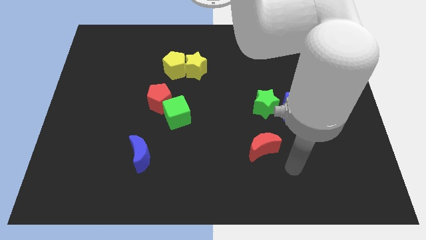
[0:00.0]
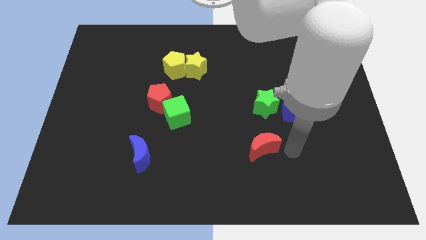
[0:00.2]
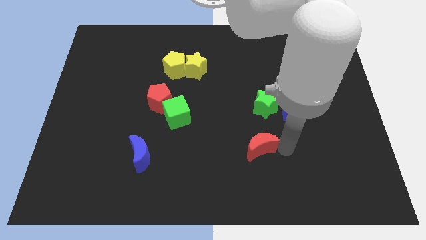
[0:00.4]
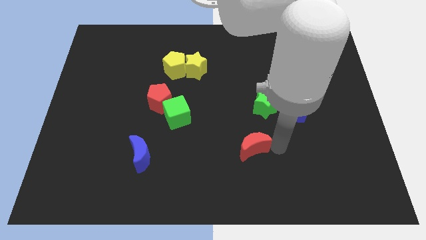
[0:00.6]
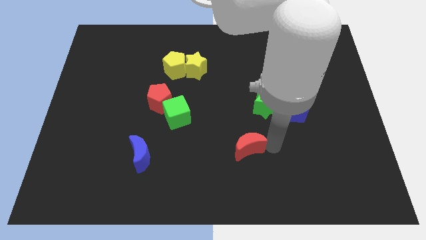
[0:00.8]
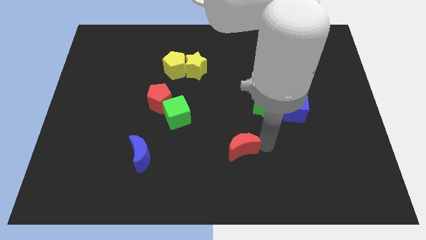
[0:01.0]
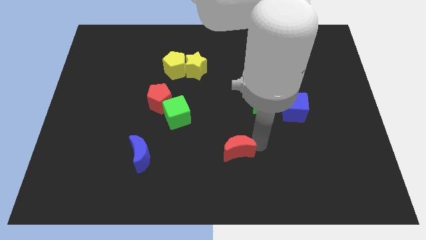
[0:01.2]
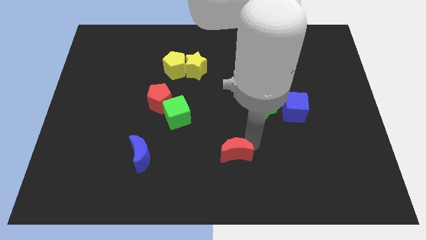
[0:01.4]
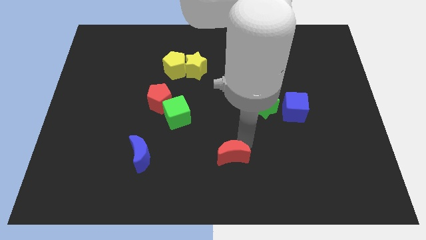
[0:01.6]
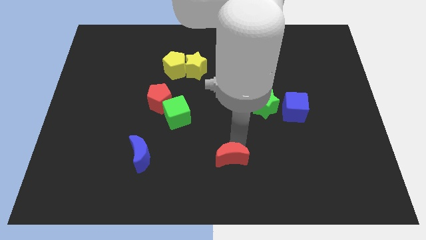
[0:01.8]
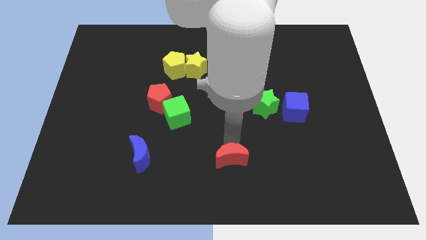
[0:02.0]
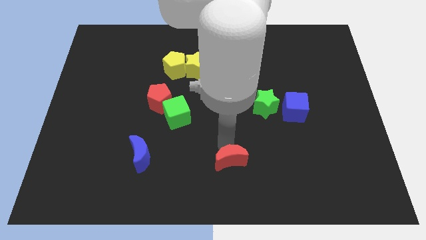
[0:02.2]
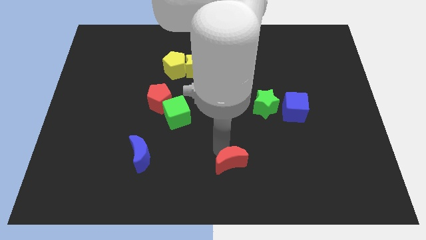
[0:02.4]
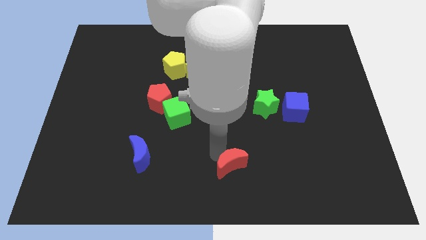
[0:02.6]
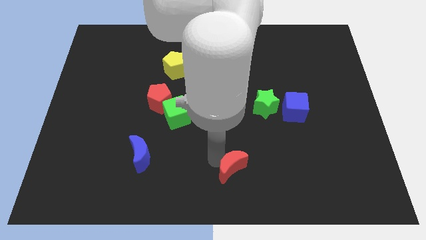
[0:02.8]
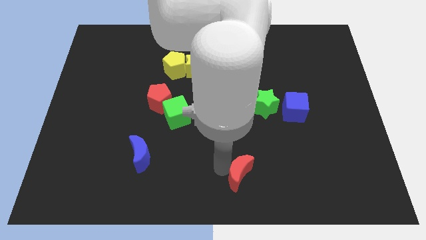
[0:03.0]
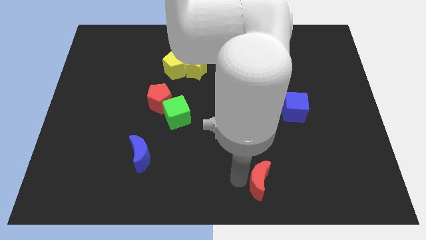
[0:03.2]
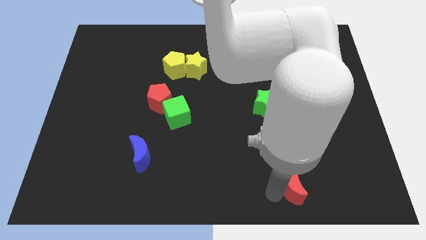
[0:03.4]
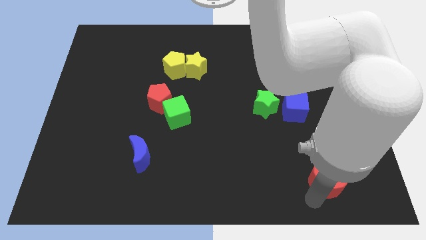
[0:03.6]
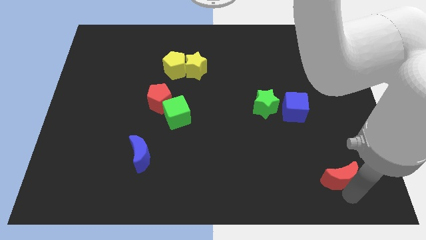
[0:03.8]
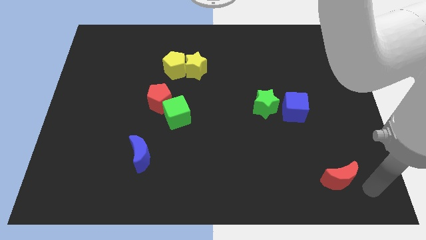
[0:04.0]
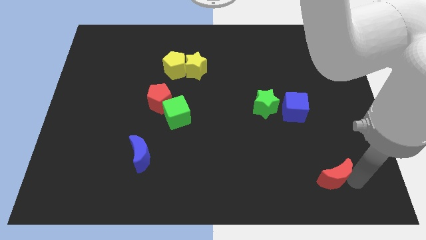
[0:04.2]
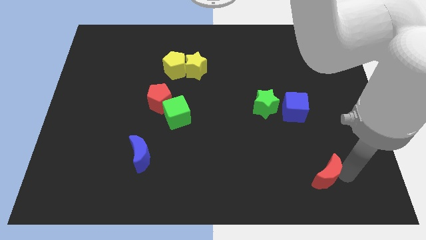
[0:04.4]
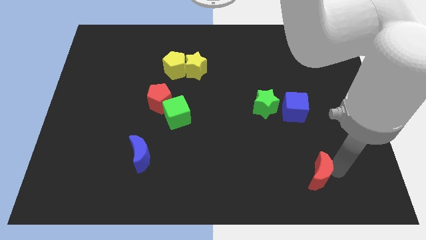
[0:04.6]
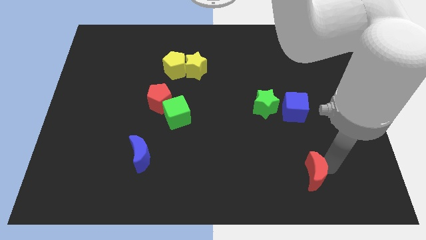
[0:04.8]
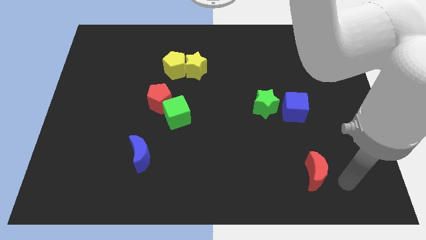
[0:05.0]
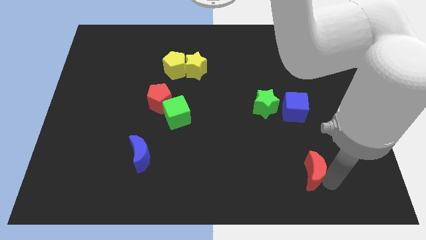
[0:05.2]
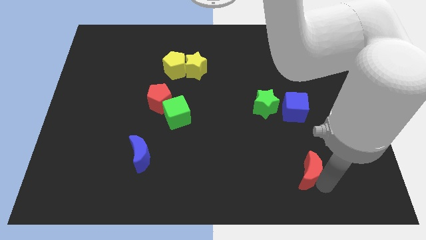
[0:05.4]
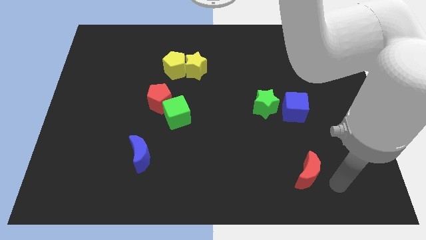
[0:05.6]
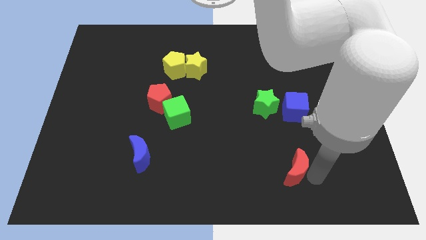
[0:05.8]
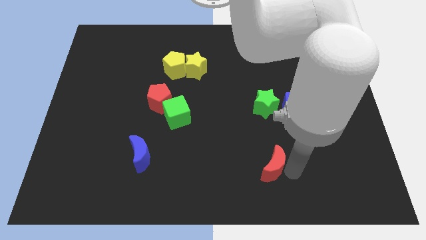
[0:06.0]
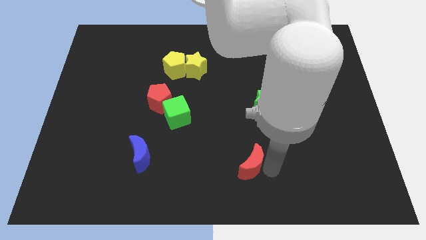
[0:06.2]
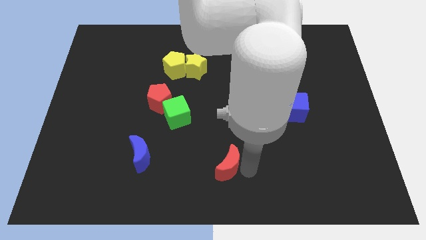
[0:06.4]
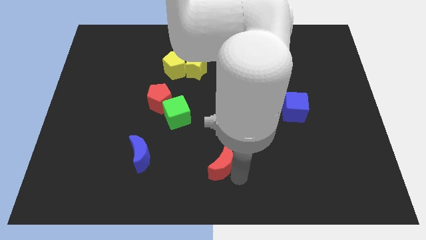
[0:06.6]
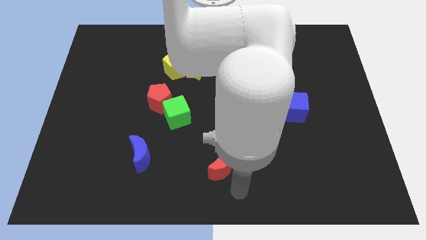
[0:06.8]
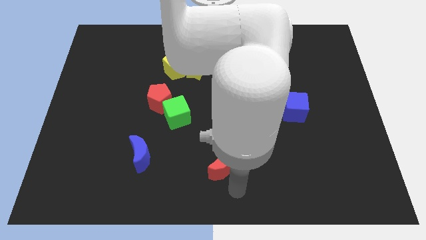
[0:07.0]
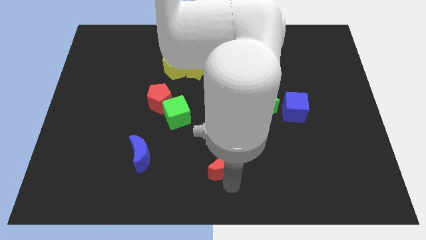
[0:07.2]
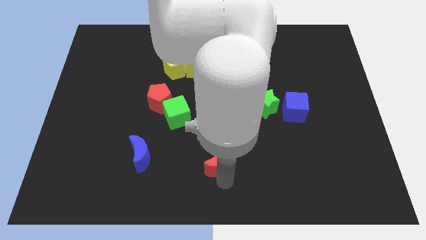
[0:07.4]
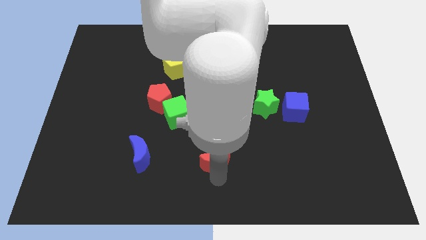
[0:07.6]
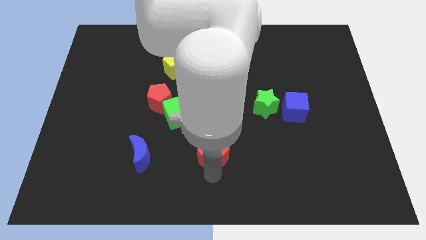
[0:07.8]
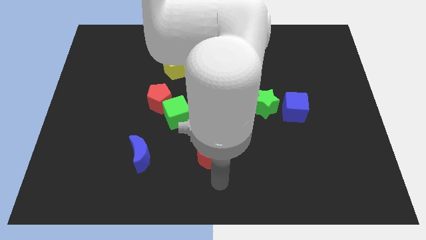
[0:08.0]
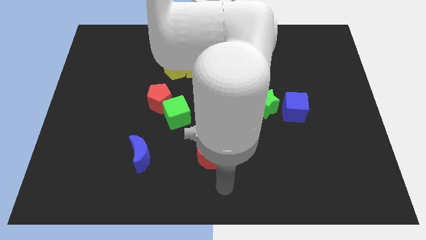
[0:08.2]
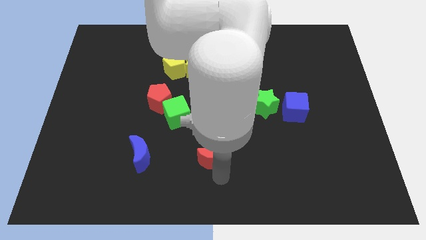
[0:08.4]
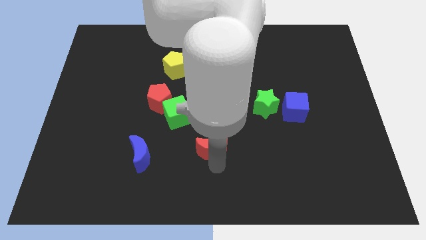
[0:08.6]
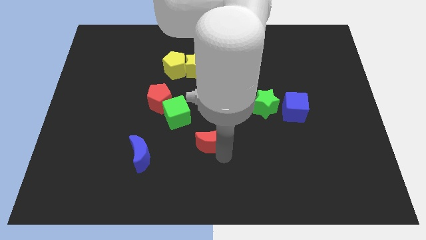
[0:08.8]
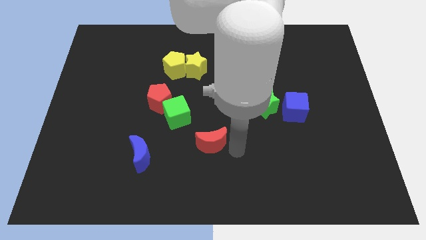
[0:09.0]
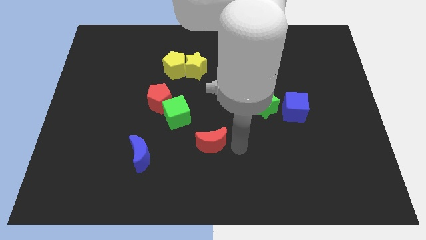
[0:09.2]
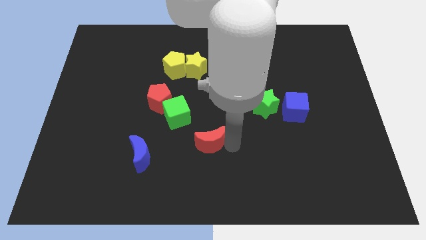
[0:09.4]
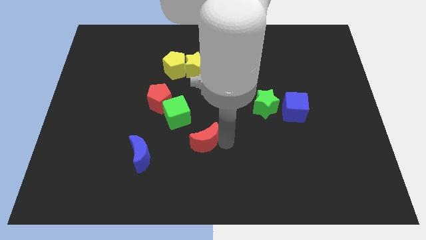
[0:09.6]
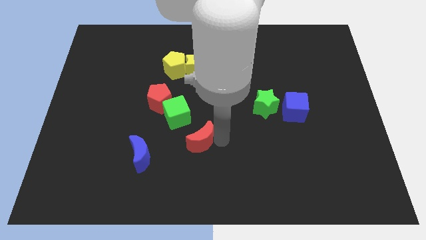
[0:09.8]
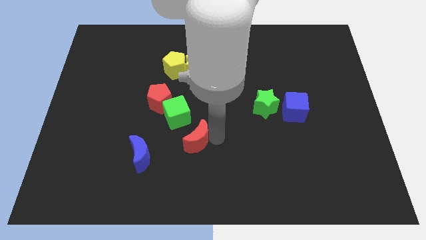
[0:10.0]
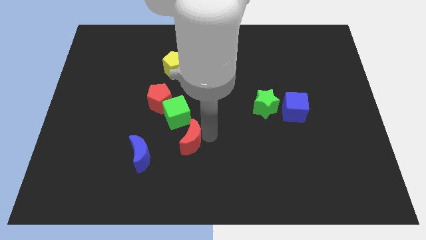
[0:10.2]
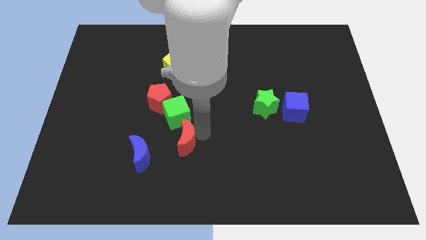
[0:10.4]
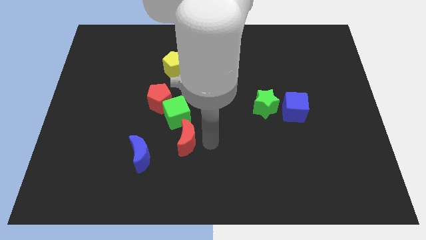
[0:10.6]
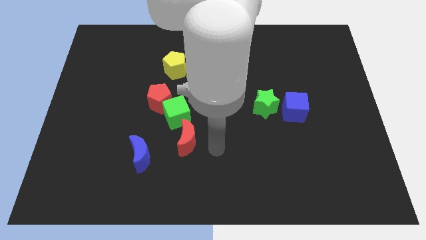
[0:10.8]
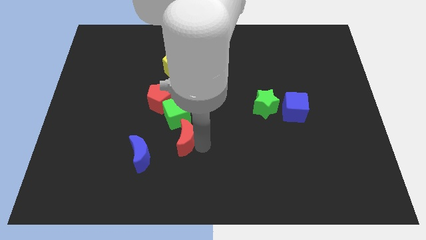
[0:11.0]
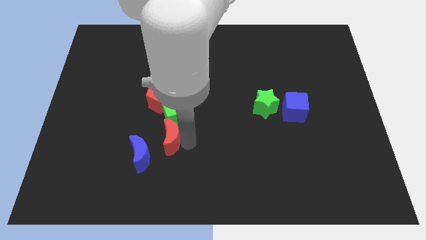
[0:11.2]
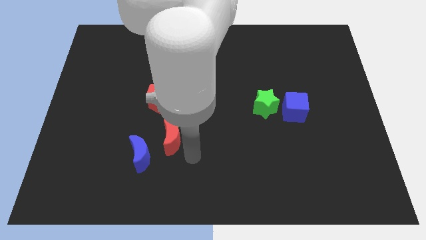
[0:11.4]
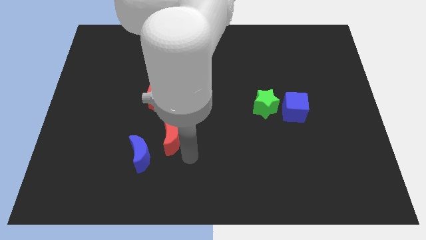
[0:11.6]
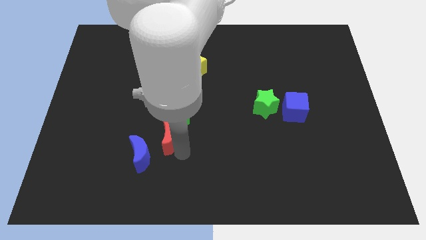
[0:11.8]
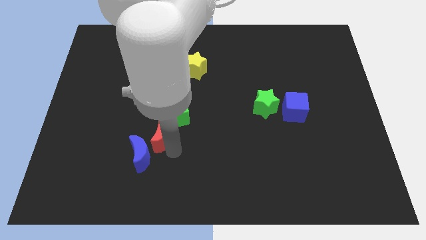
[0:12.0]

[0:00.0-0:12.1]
move the red moon above the blue moon
